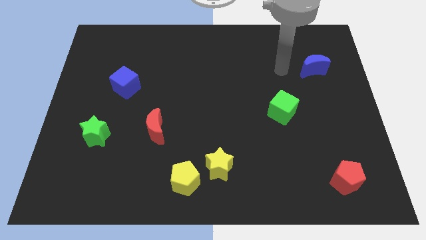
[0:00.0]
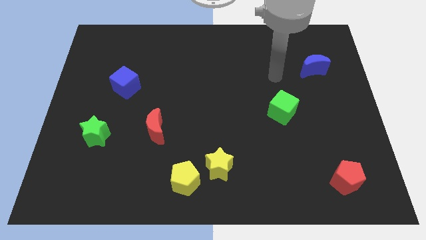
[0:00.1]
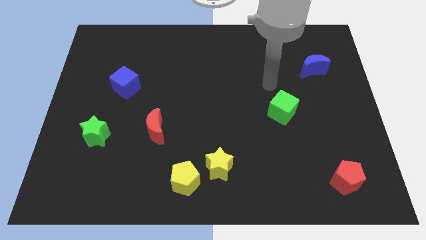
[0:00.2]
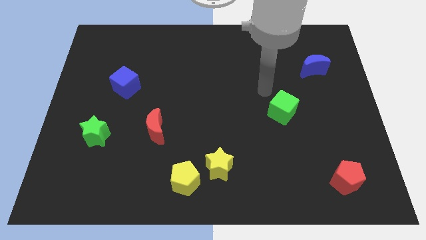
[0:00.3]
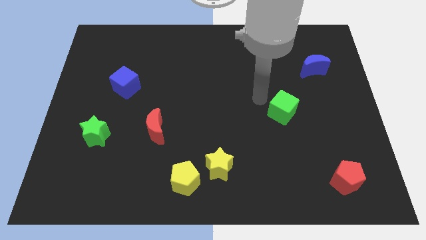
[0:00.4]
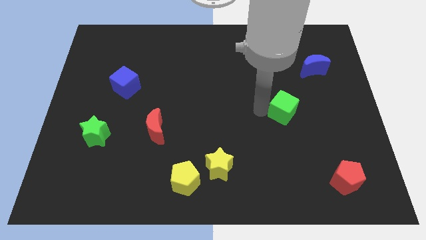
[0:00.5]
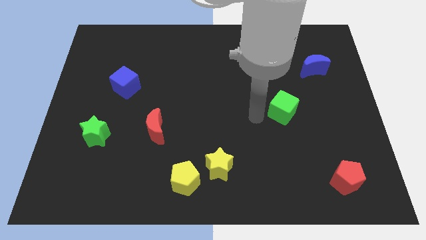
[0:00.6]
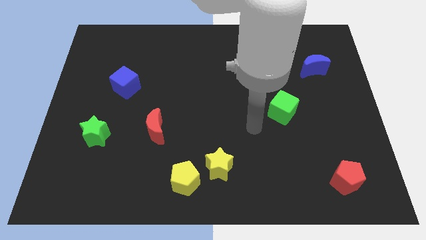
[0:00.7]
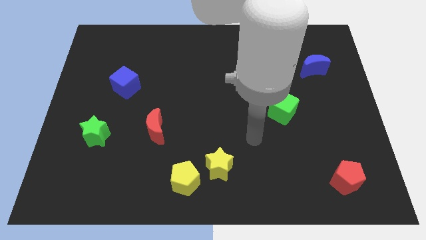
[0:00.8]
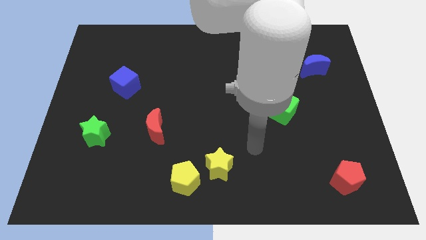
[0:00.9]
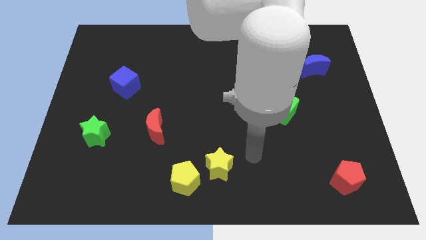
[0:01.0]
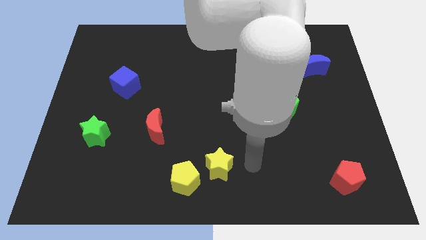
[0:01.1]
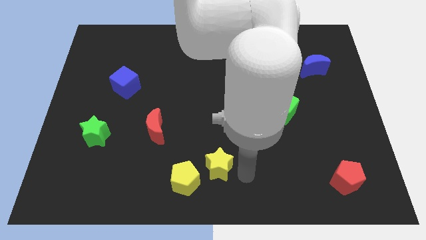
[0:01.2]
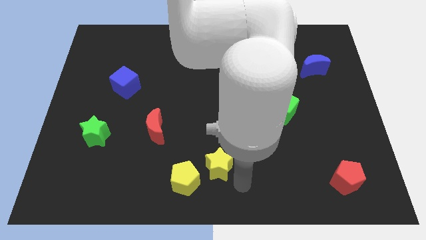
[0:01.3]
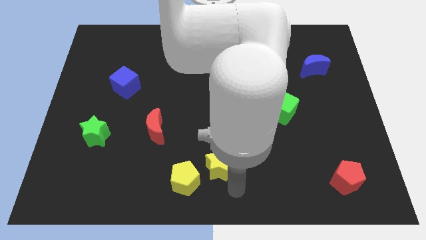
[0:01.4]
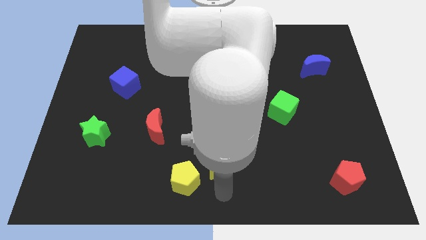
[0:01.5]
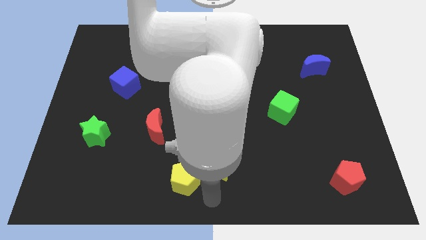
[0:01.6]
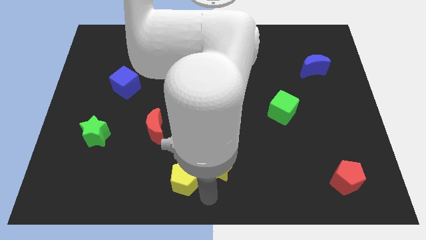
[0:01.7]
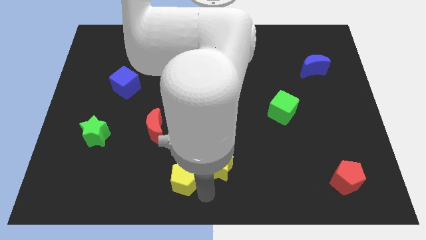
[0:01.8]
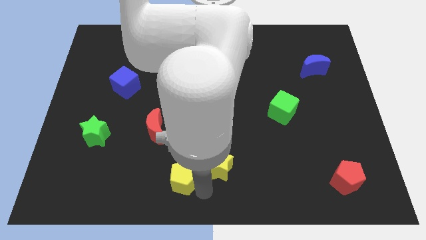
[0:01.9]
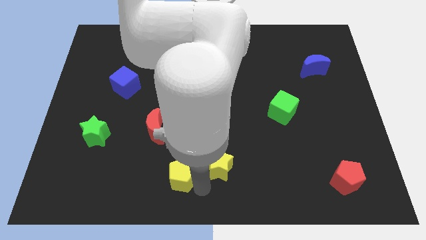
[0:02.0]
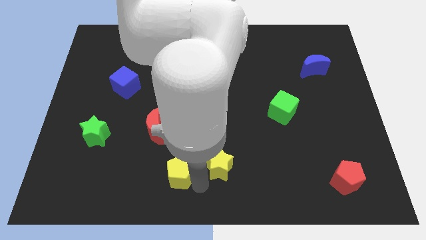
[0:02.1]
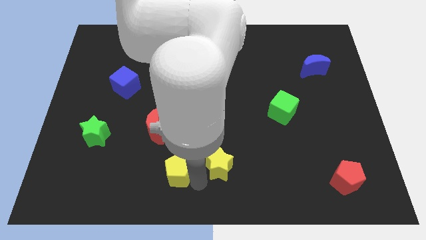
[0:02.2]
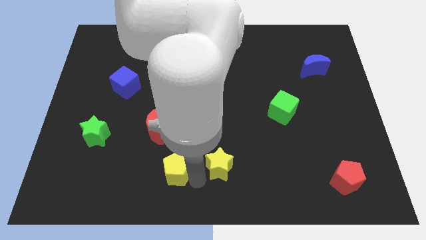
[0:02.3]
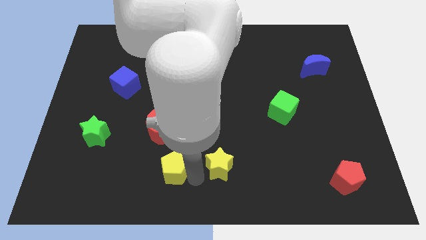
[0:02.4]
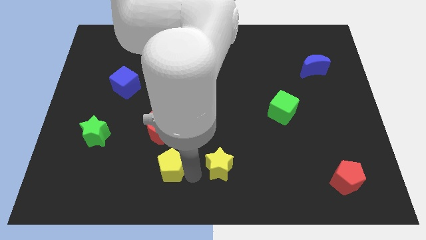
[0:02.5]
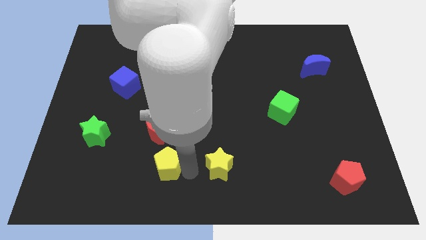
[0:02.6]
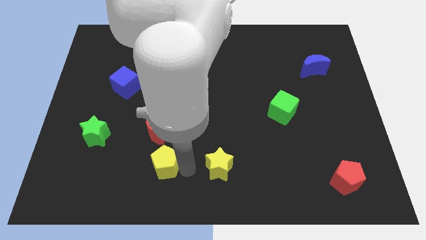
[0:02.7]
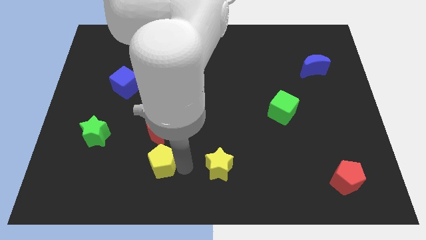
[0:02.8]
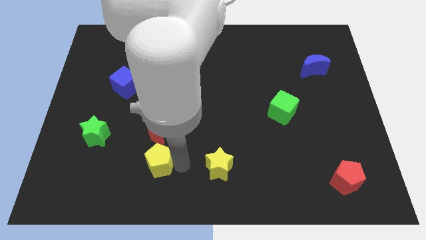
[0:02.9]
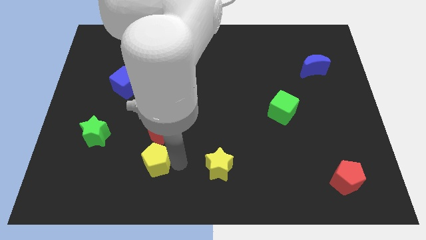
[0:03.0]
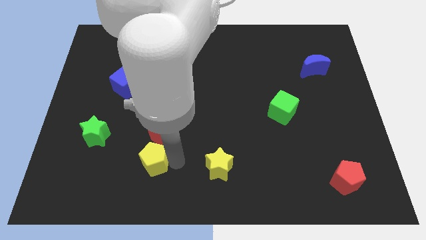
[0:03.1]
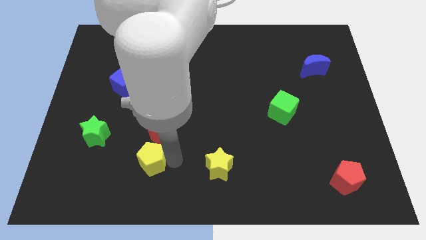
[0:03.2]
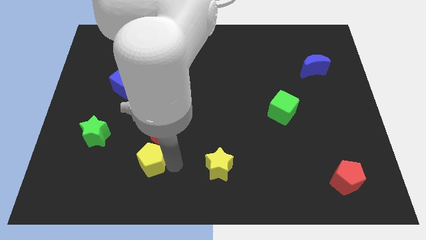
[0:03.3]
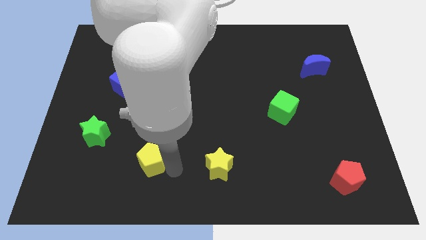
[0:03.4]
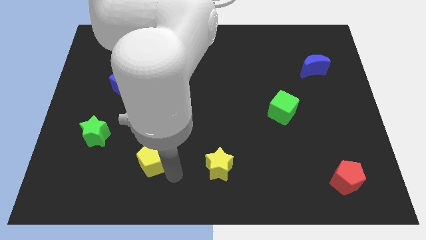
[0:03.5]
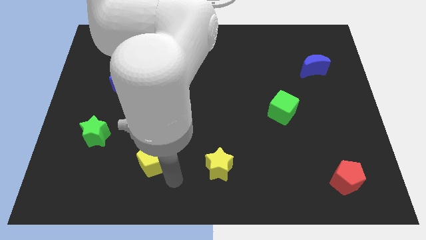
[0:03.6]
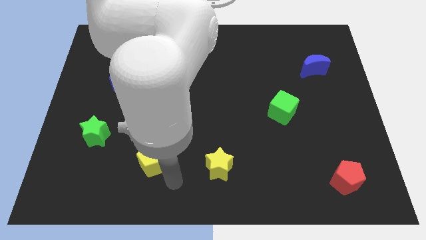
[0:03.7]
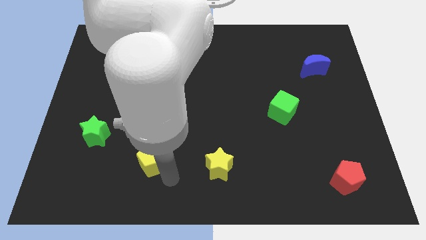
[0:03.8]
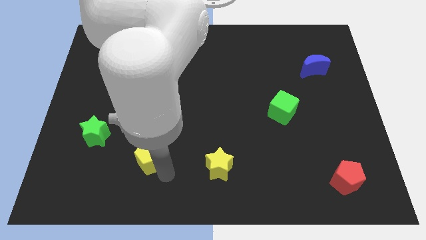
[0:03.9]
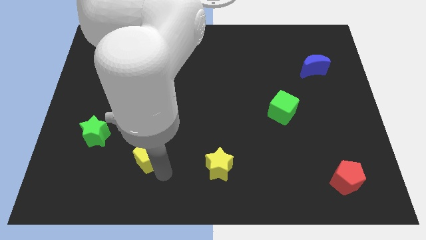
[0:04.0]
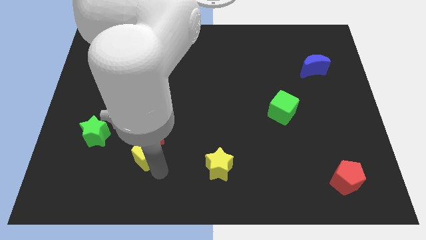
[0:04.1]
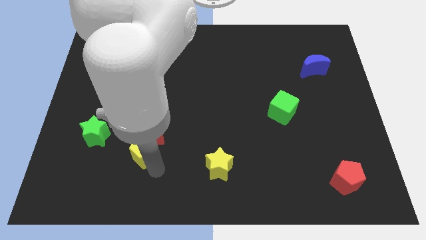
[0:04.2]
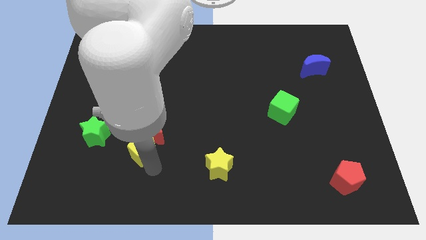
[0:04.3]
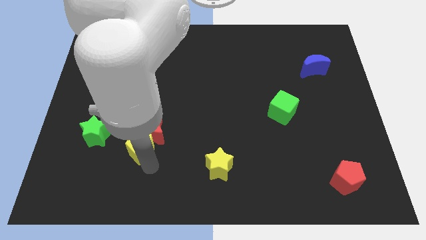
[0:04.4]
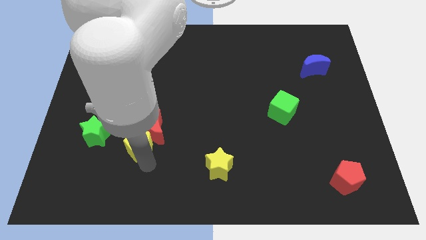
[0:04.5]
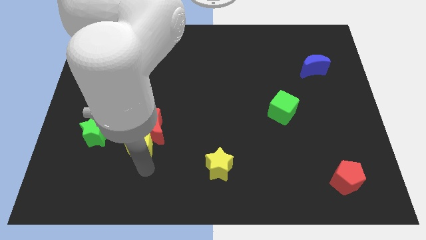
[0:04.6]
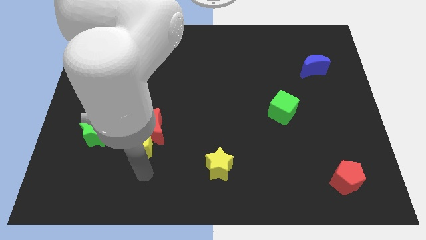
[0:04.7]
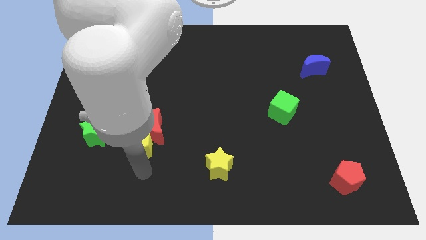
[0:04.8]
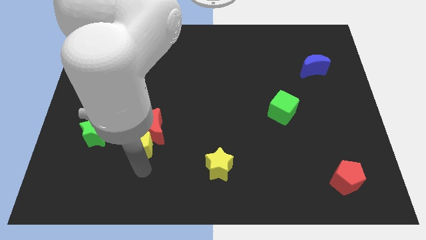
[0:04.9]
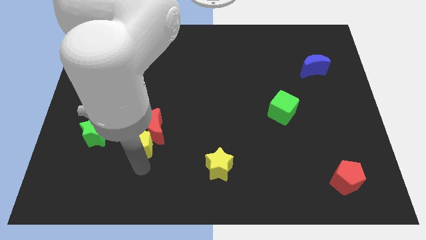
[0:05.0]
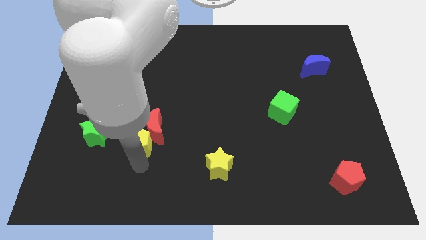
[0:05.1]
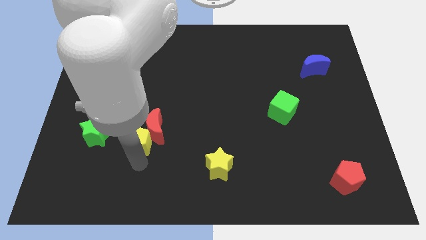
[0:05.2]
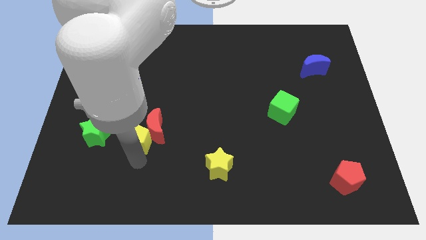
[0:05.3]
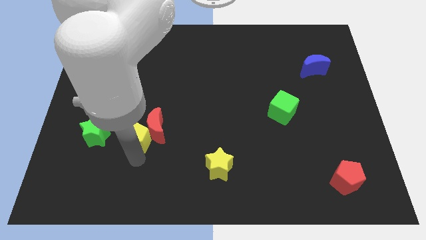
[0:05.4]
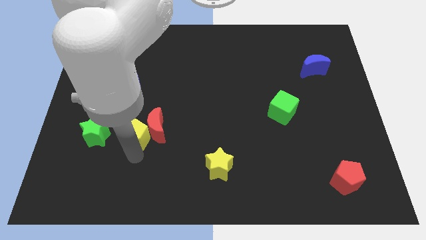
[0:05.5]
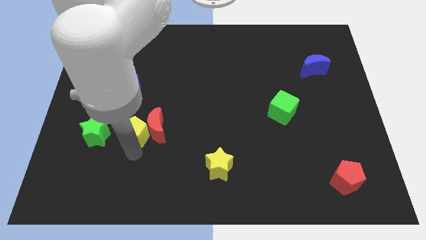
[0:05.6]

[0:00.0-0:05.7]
put the yellow pentagon to the top left side of the red moon

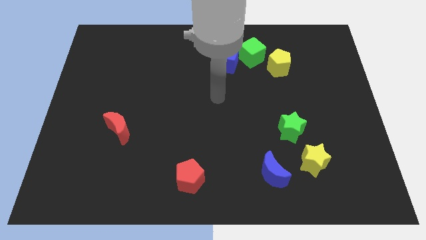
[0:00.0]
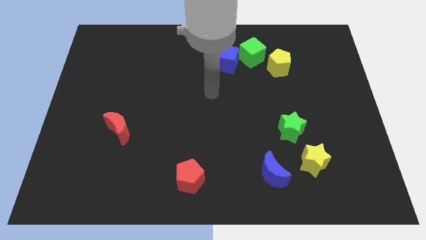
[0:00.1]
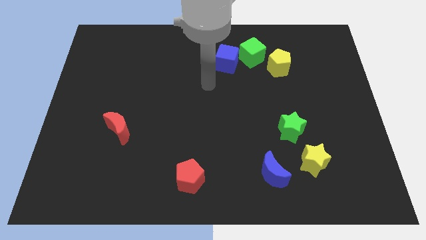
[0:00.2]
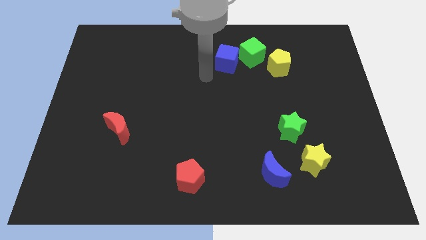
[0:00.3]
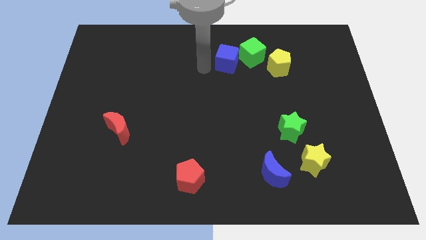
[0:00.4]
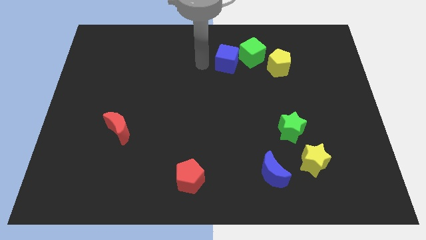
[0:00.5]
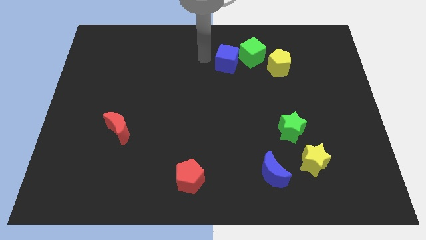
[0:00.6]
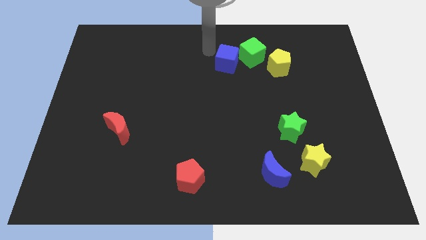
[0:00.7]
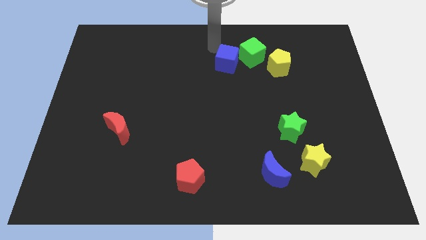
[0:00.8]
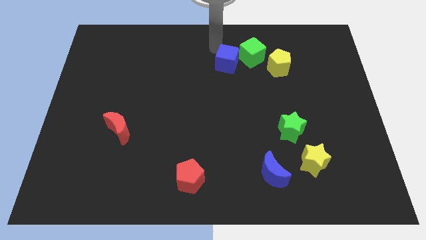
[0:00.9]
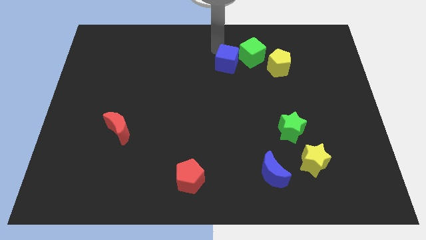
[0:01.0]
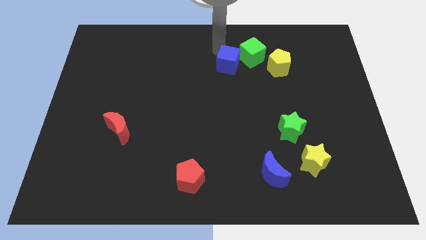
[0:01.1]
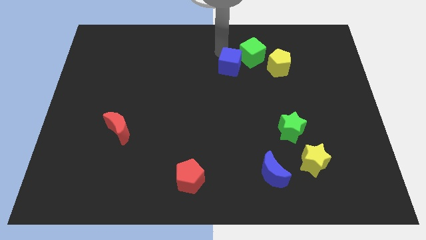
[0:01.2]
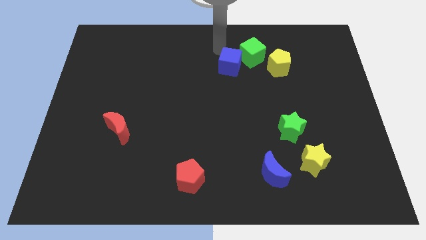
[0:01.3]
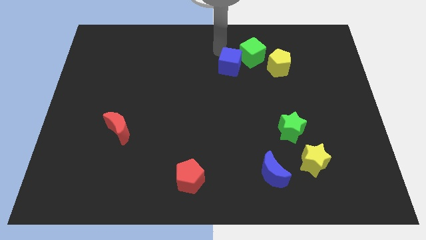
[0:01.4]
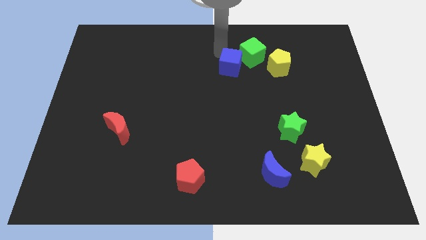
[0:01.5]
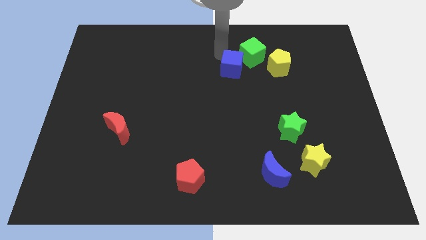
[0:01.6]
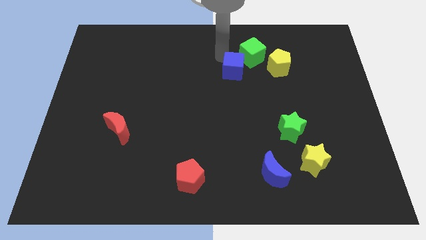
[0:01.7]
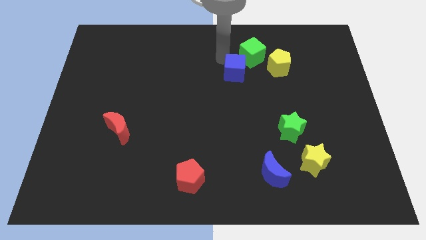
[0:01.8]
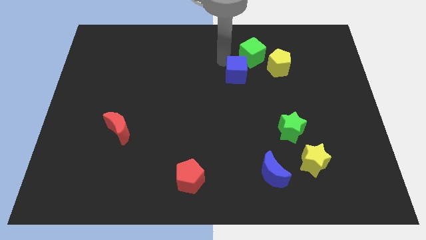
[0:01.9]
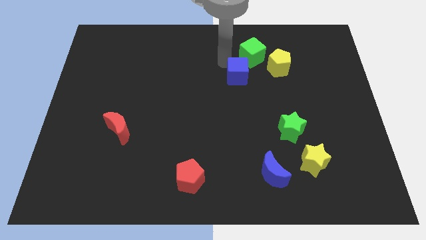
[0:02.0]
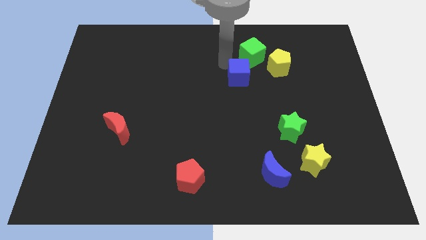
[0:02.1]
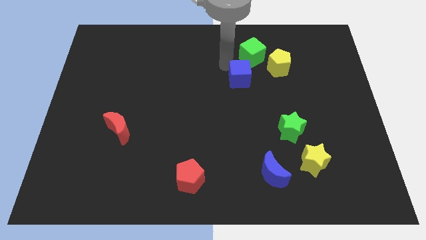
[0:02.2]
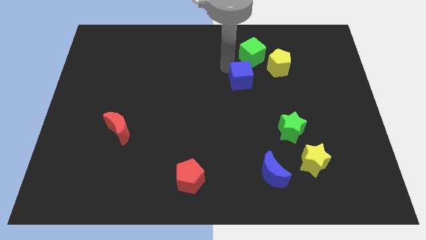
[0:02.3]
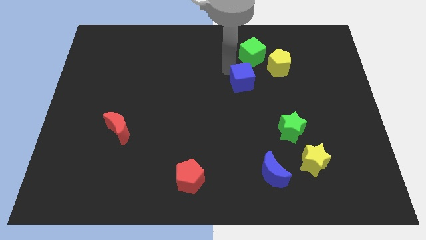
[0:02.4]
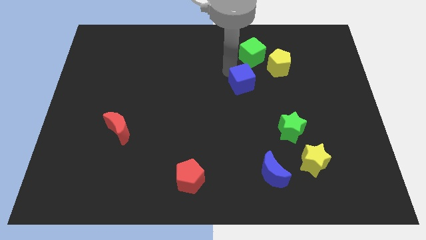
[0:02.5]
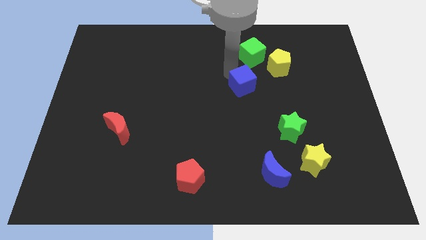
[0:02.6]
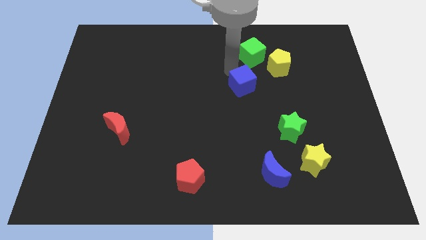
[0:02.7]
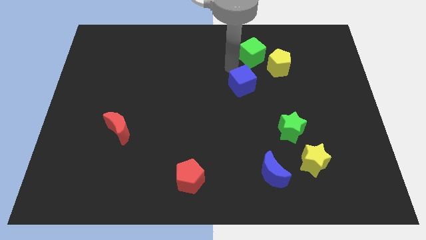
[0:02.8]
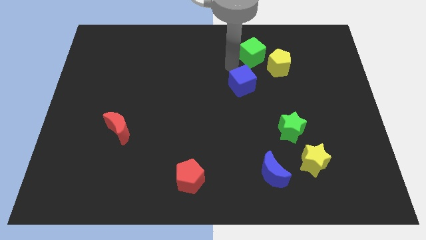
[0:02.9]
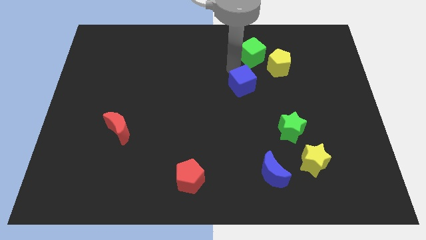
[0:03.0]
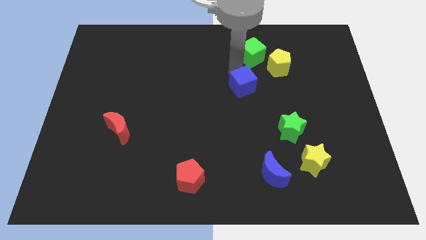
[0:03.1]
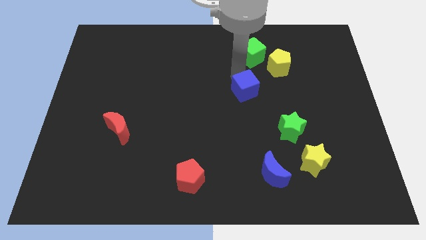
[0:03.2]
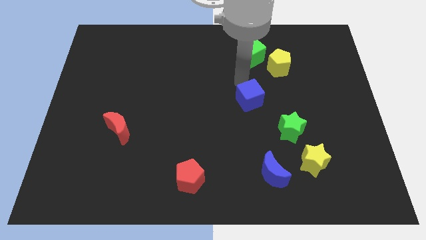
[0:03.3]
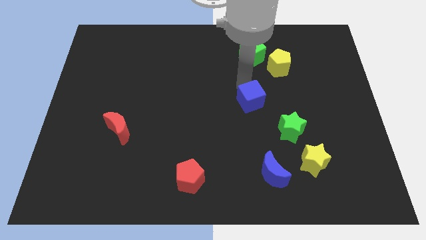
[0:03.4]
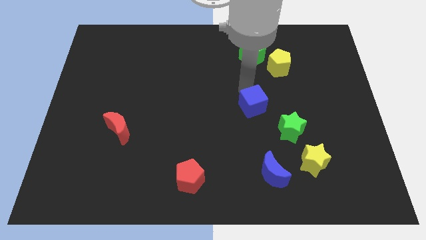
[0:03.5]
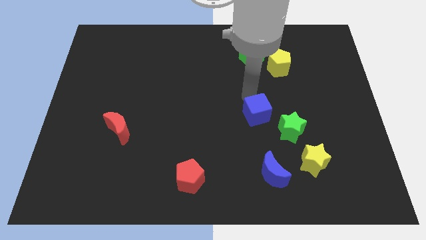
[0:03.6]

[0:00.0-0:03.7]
put the blue cube to the top side of the blue moon
